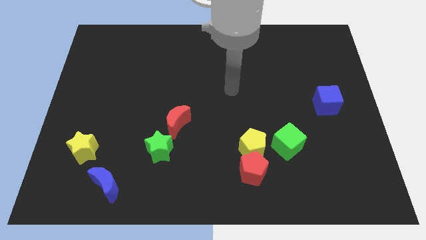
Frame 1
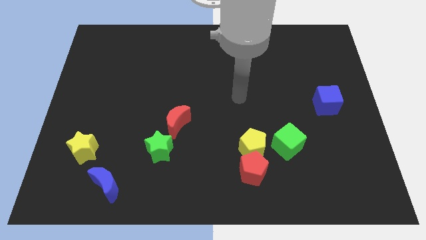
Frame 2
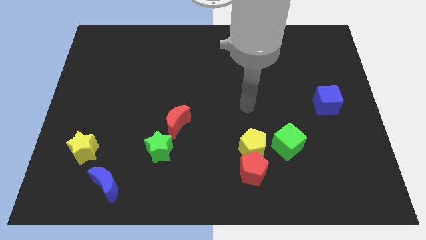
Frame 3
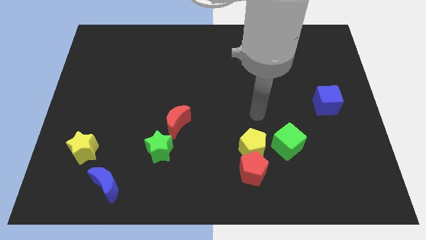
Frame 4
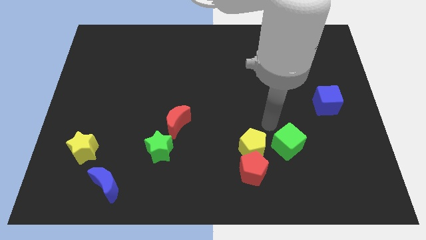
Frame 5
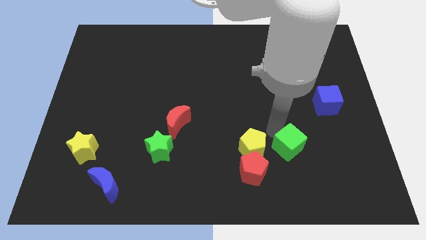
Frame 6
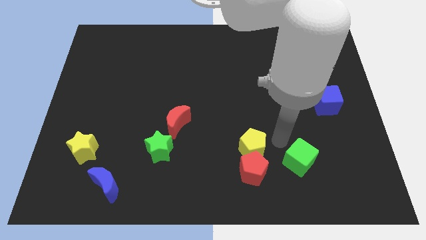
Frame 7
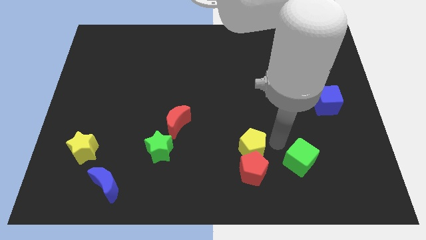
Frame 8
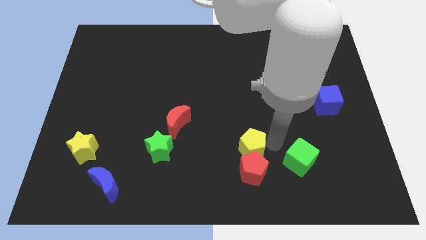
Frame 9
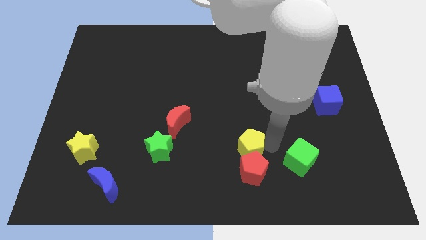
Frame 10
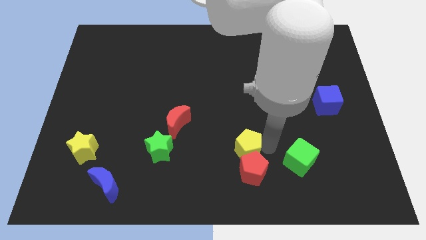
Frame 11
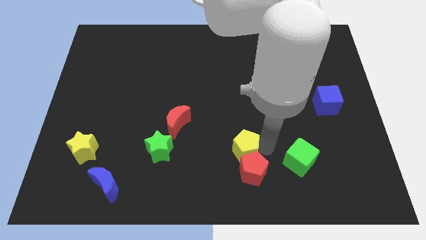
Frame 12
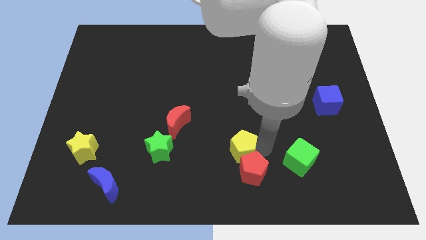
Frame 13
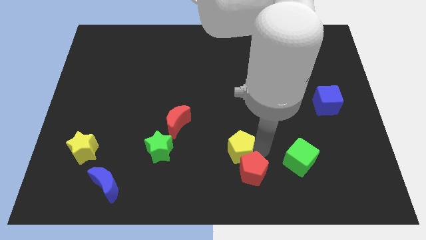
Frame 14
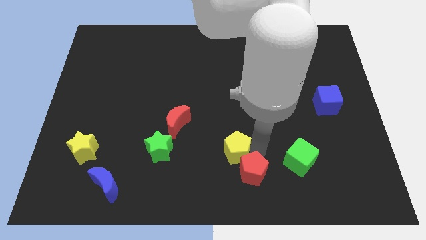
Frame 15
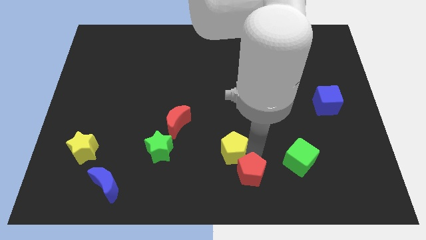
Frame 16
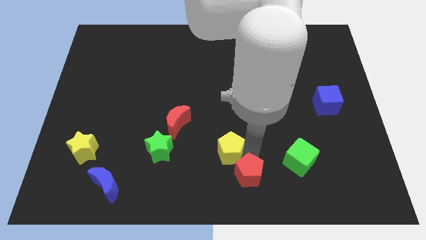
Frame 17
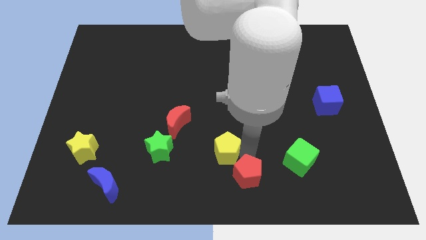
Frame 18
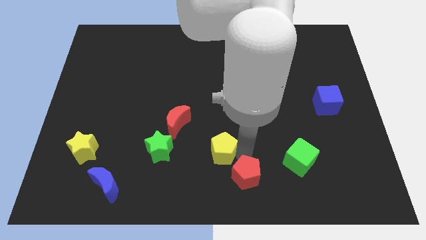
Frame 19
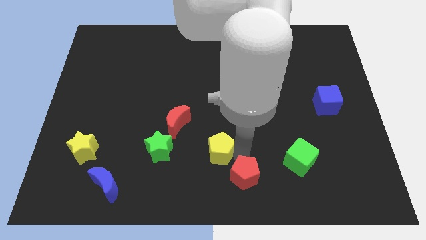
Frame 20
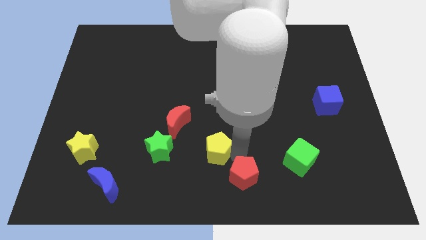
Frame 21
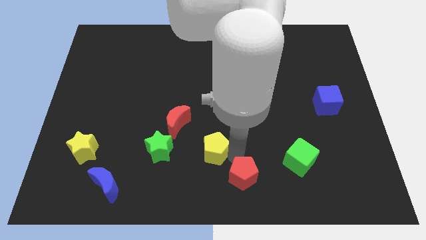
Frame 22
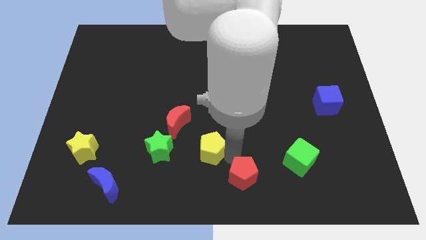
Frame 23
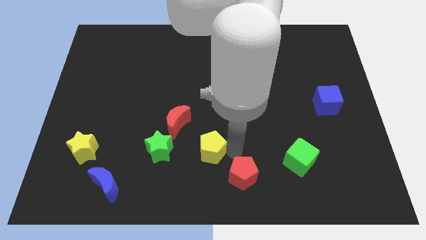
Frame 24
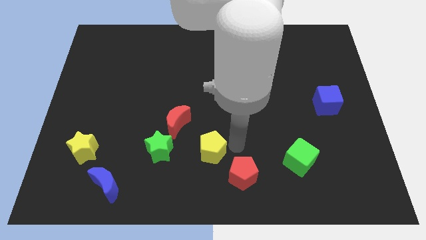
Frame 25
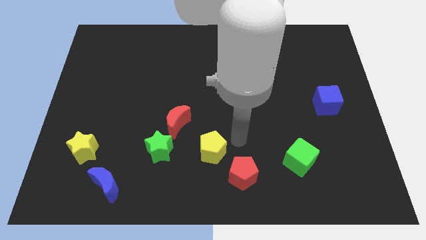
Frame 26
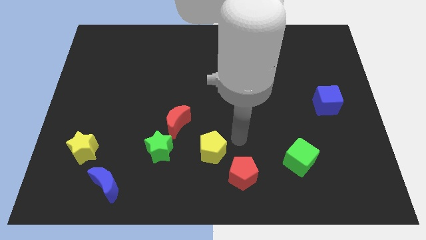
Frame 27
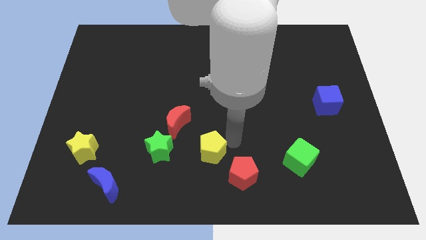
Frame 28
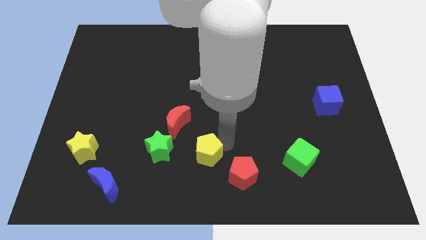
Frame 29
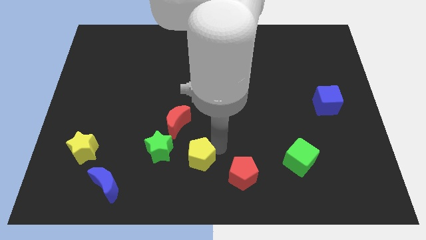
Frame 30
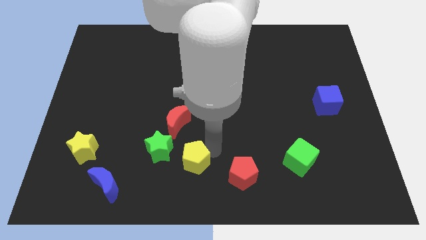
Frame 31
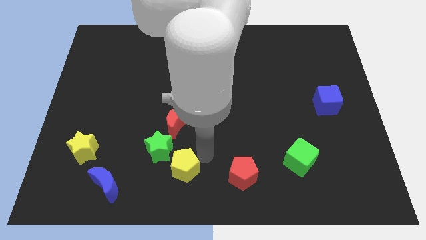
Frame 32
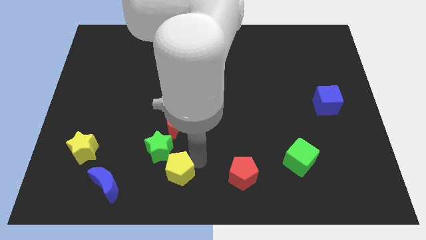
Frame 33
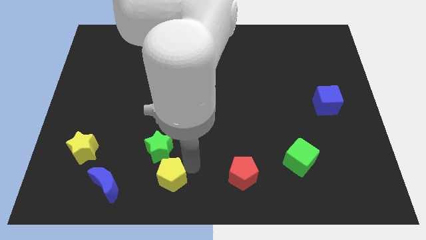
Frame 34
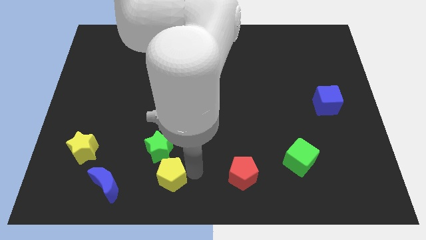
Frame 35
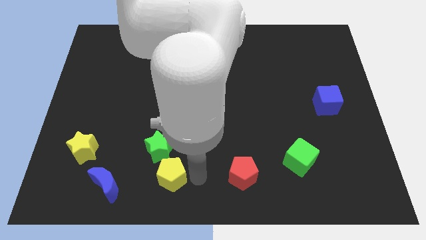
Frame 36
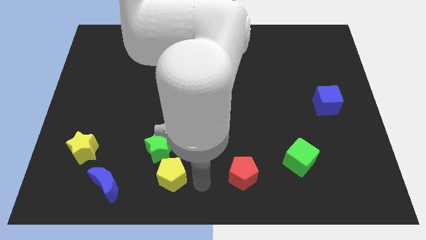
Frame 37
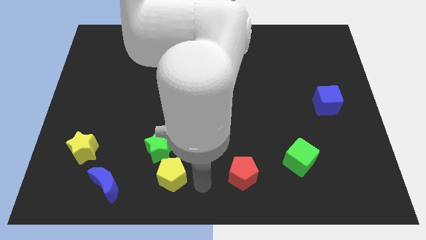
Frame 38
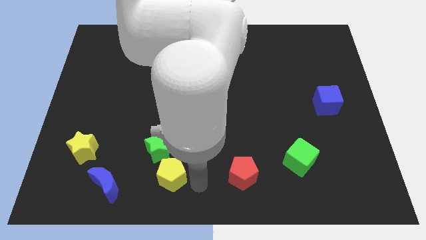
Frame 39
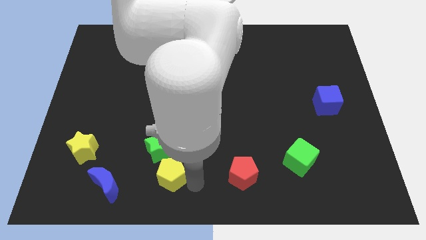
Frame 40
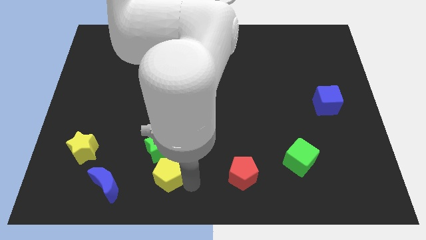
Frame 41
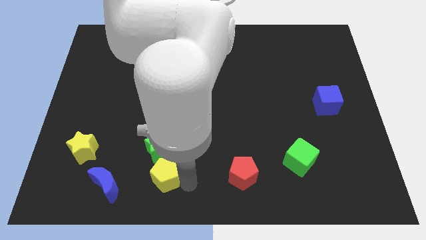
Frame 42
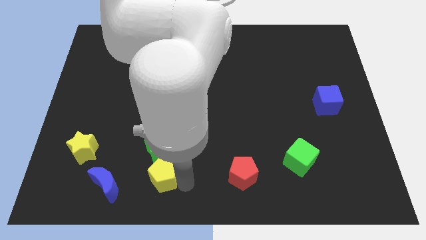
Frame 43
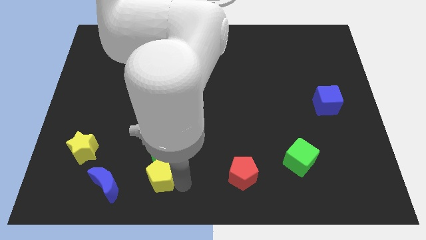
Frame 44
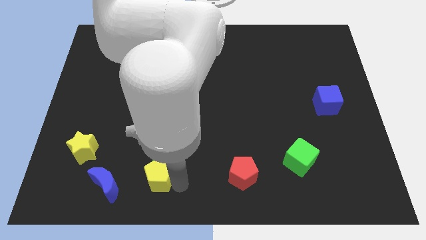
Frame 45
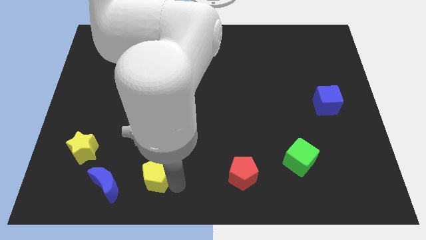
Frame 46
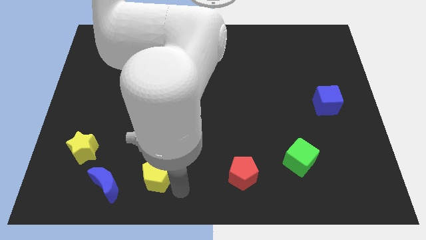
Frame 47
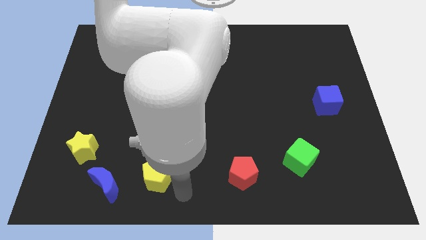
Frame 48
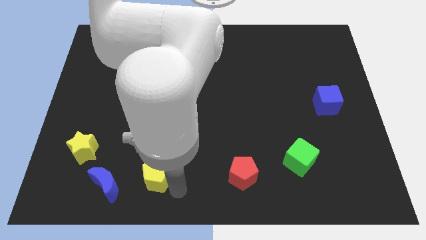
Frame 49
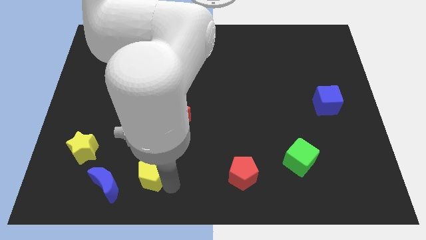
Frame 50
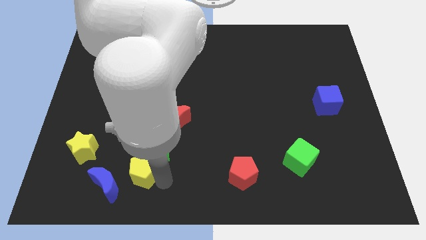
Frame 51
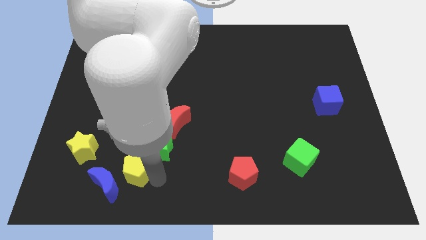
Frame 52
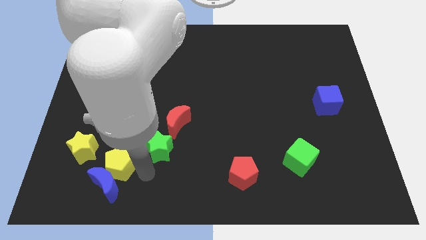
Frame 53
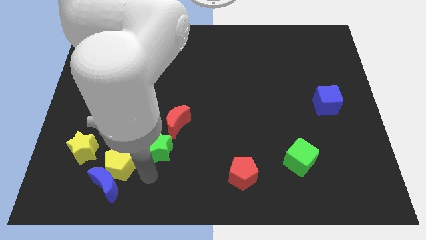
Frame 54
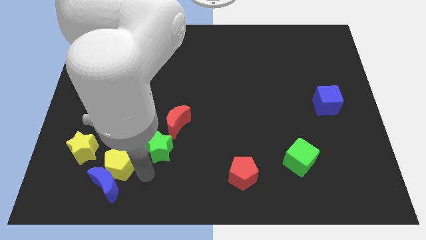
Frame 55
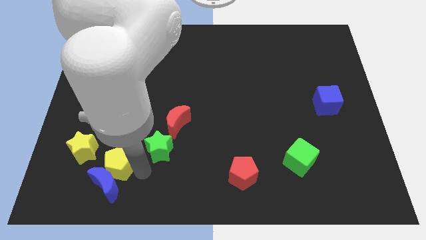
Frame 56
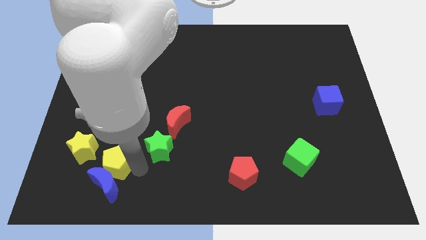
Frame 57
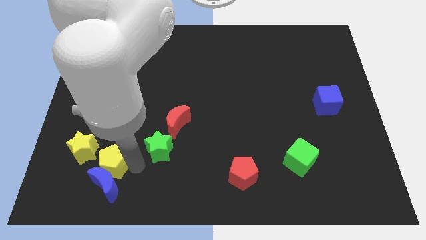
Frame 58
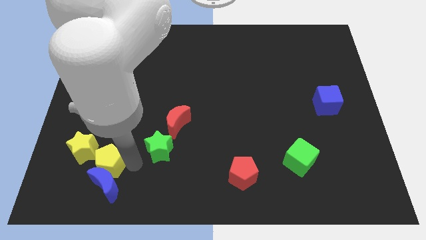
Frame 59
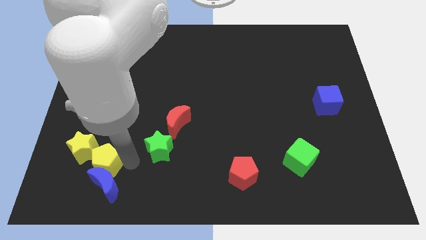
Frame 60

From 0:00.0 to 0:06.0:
move the yellow pentagon close to the yellow star

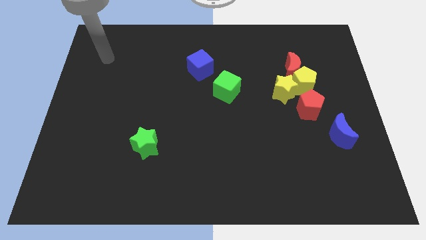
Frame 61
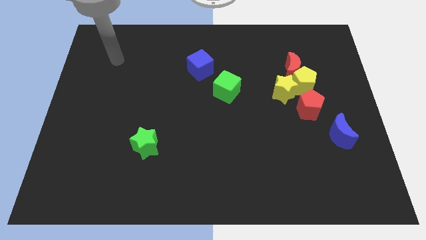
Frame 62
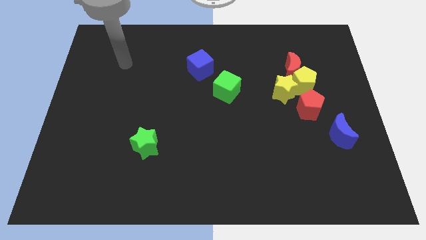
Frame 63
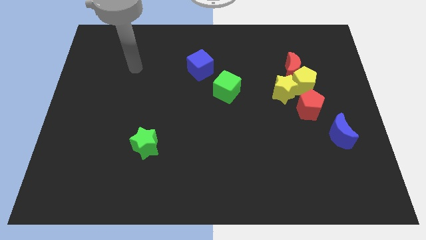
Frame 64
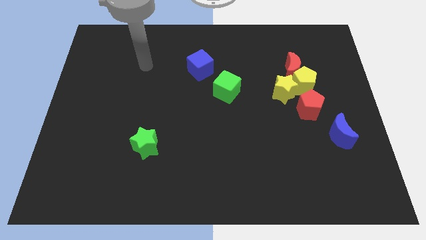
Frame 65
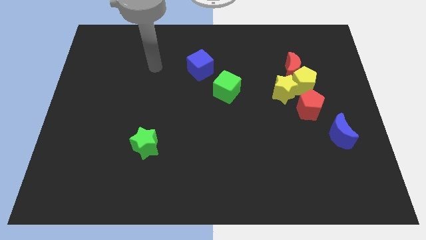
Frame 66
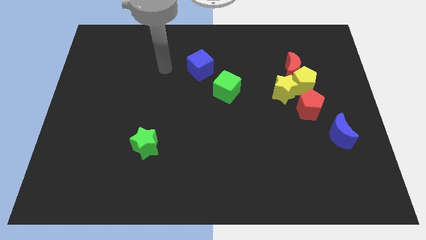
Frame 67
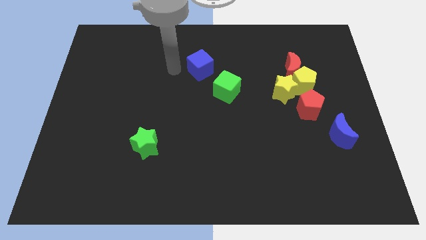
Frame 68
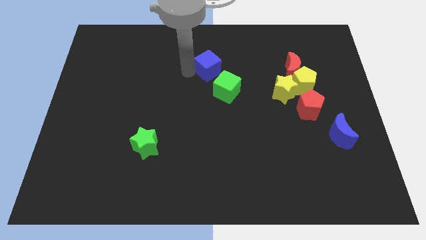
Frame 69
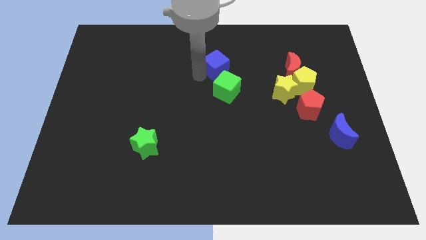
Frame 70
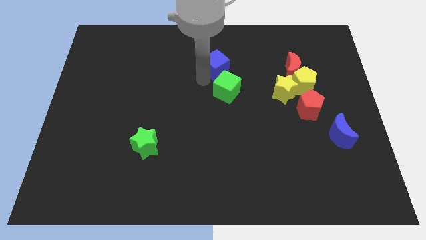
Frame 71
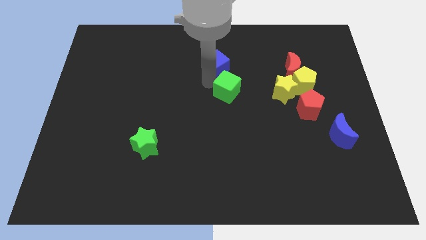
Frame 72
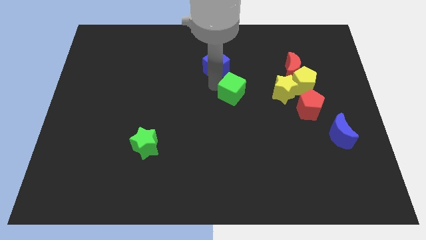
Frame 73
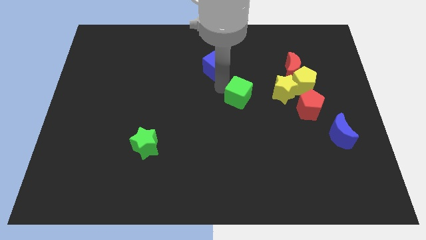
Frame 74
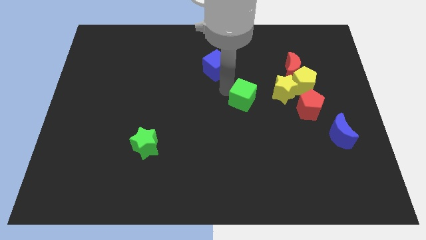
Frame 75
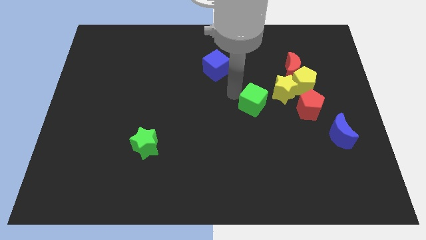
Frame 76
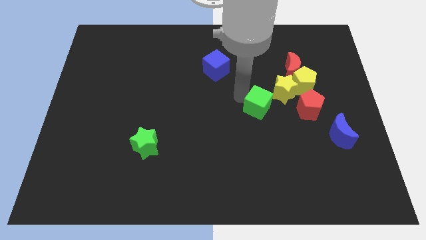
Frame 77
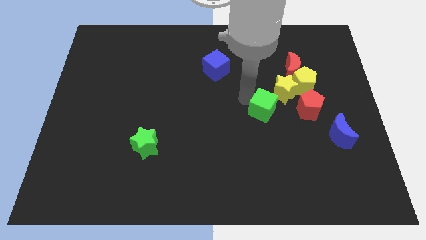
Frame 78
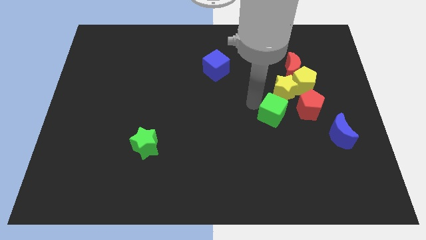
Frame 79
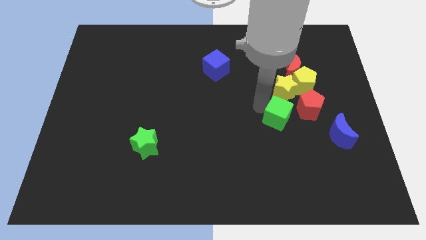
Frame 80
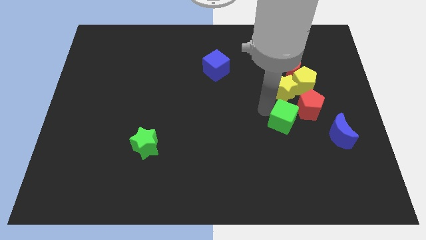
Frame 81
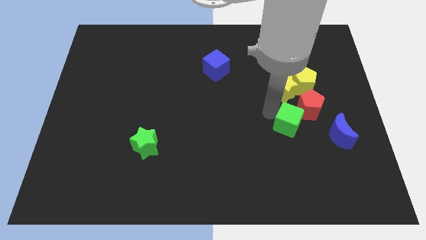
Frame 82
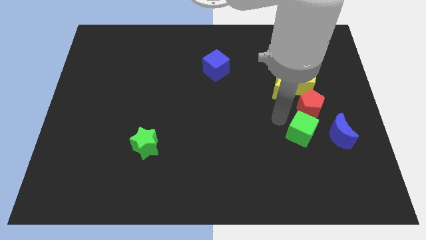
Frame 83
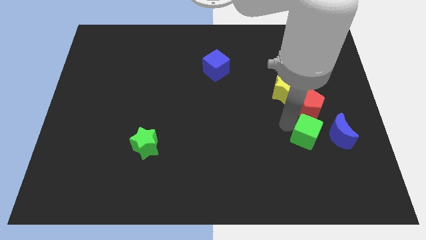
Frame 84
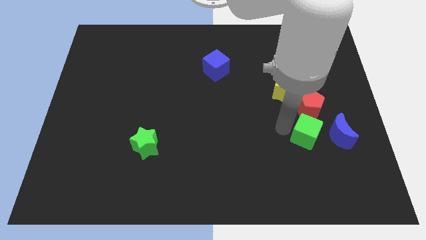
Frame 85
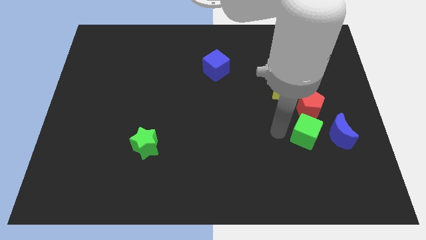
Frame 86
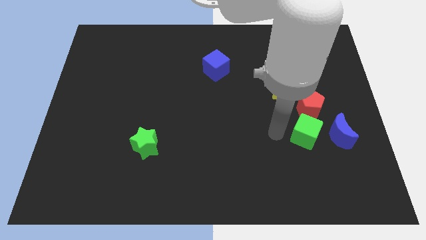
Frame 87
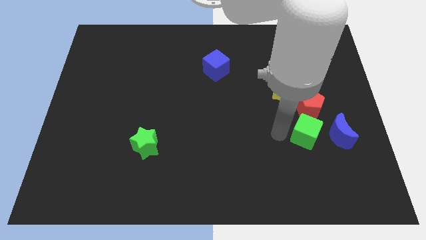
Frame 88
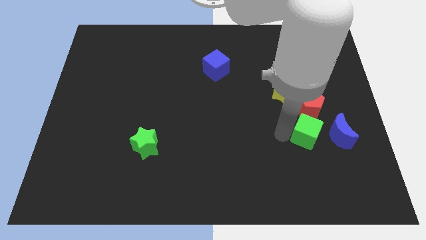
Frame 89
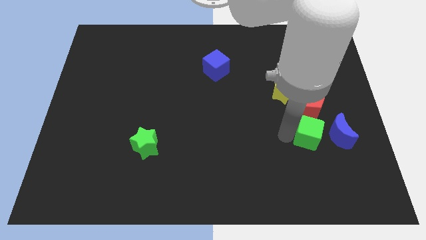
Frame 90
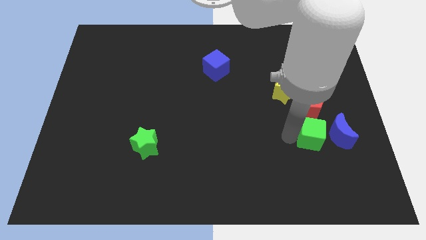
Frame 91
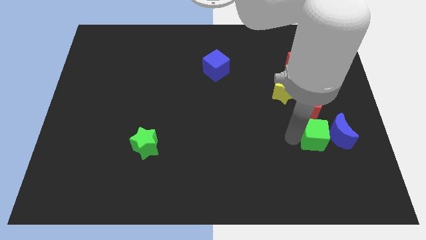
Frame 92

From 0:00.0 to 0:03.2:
put the green cube towards the blue moon
